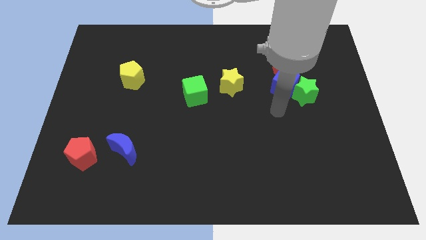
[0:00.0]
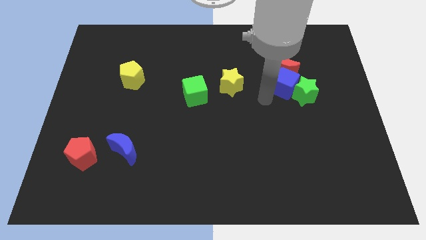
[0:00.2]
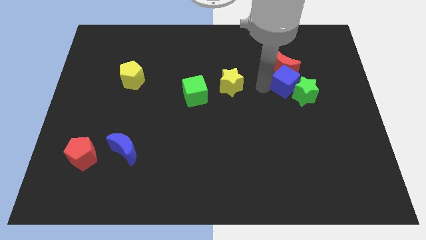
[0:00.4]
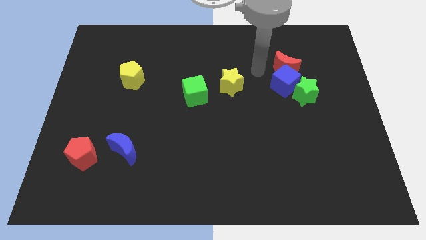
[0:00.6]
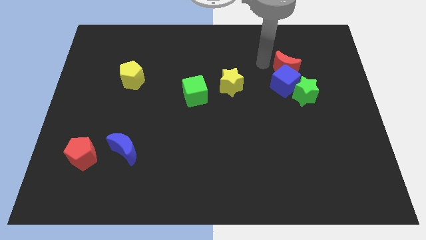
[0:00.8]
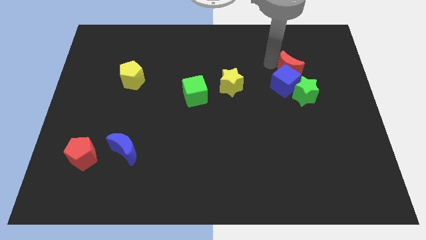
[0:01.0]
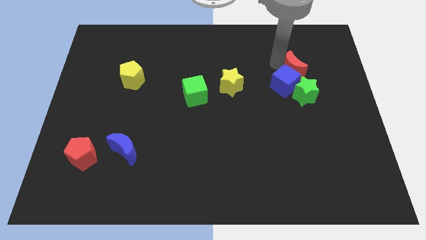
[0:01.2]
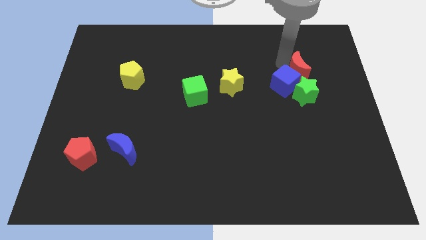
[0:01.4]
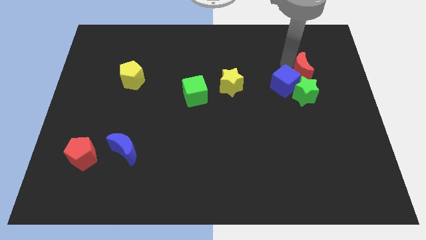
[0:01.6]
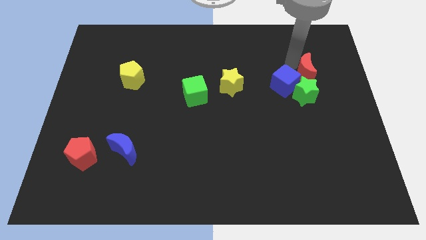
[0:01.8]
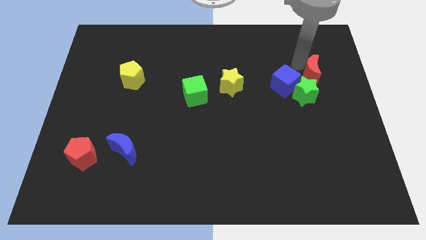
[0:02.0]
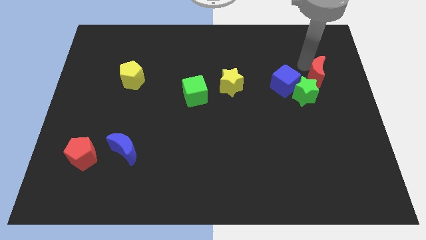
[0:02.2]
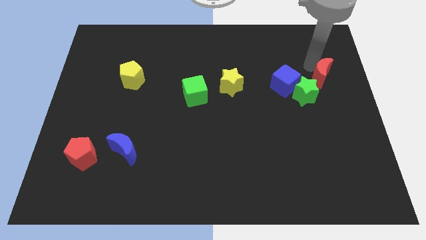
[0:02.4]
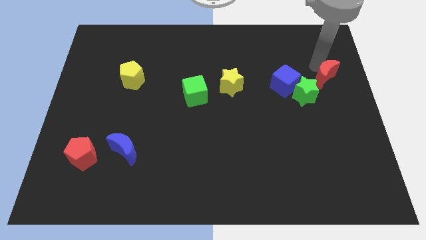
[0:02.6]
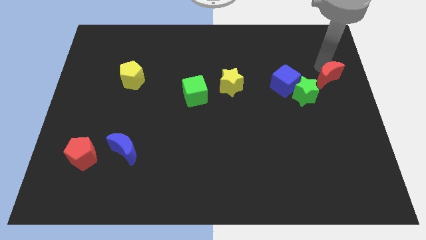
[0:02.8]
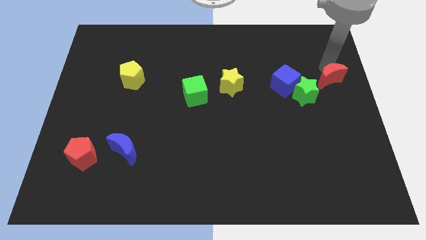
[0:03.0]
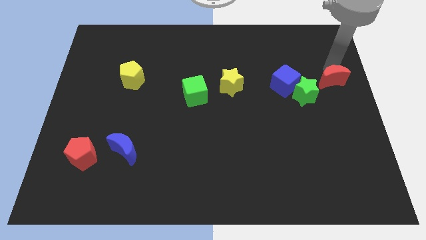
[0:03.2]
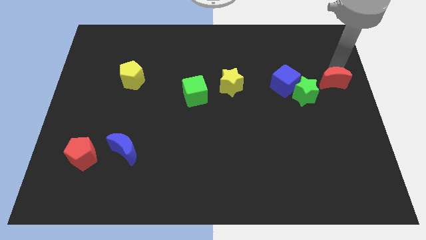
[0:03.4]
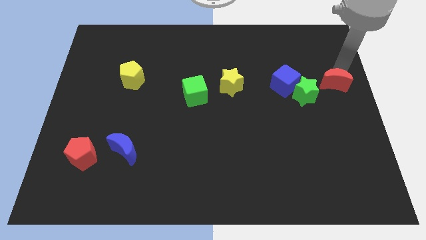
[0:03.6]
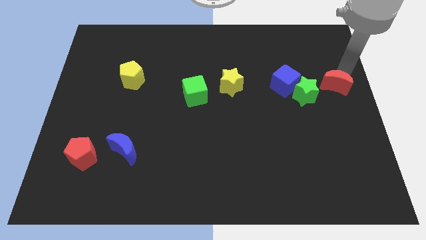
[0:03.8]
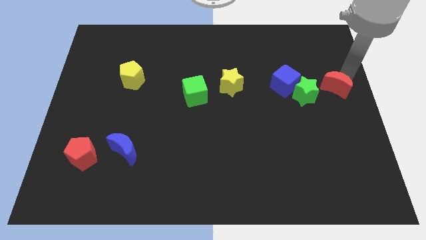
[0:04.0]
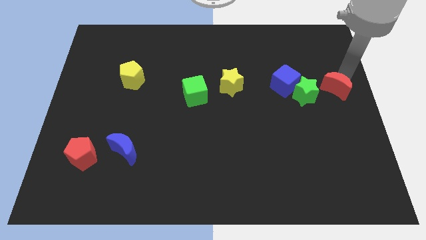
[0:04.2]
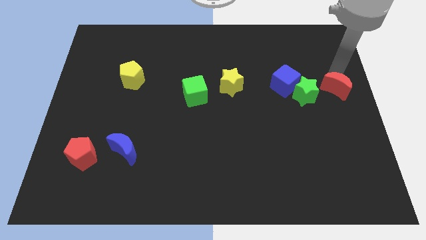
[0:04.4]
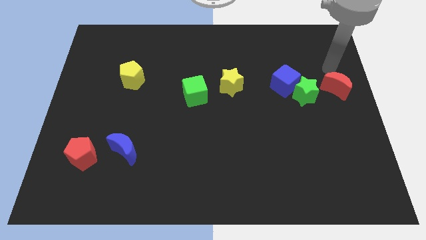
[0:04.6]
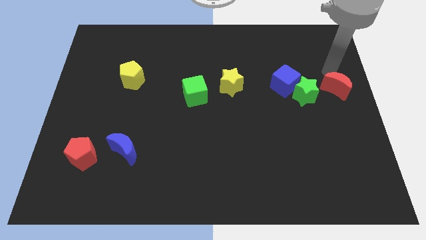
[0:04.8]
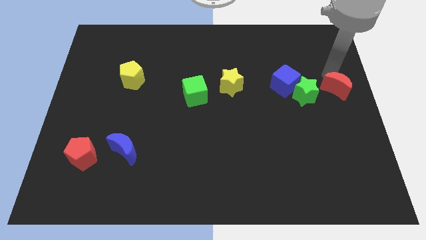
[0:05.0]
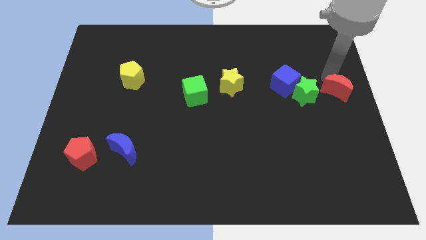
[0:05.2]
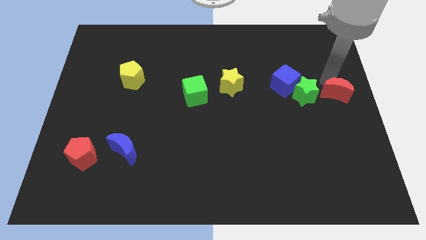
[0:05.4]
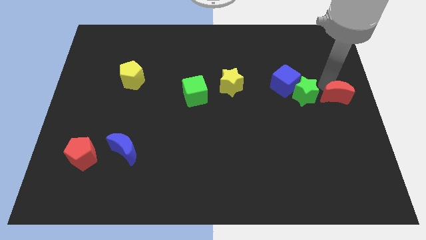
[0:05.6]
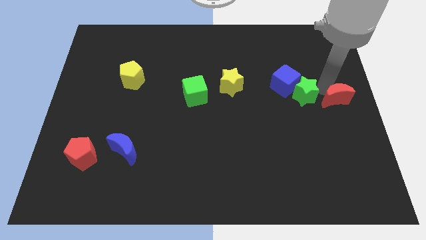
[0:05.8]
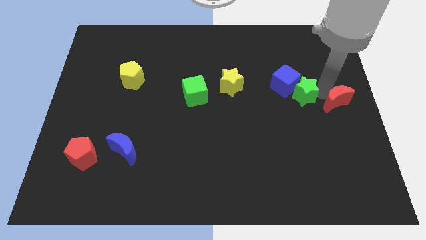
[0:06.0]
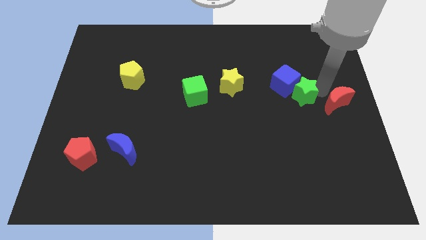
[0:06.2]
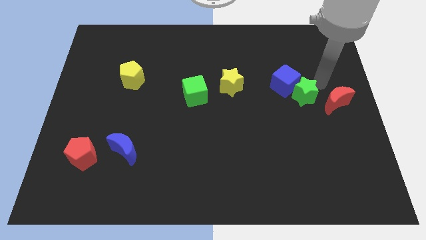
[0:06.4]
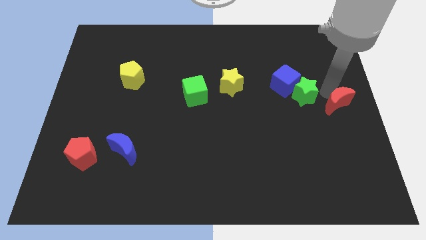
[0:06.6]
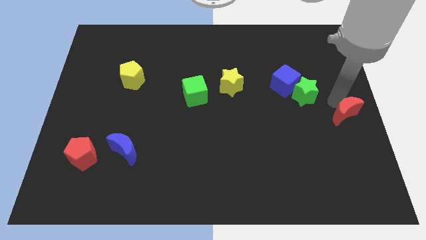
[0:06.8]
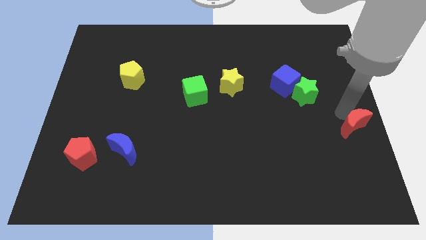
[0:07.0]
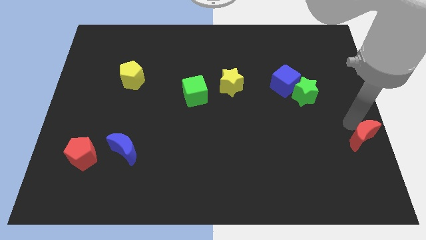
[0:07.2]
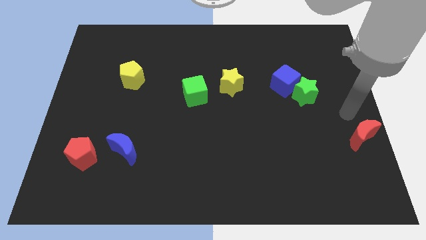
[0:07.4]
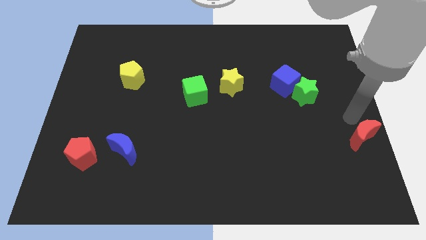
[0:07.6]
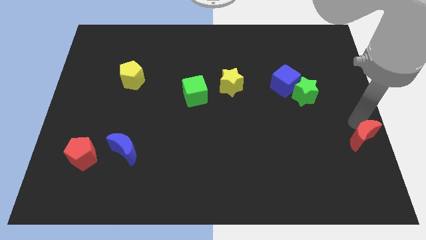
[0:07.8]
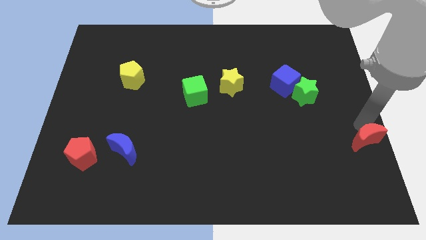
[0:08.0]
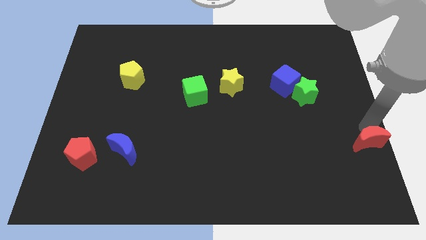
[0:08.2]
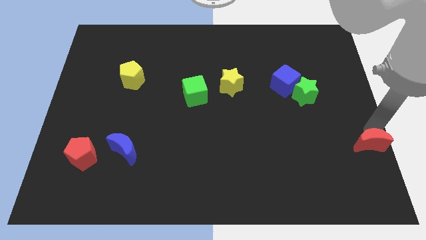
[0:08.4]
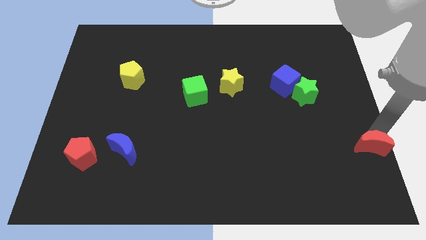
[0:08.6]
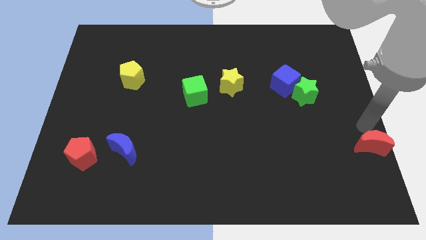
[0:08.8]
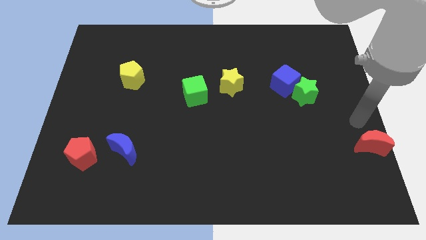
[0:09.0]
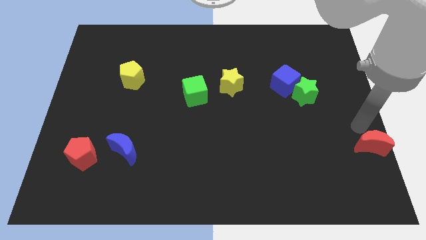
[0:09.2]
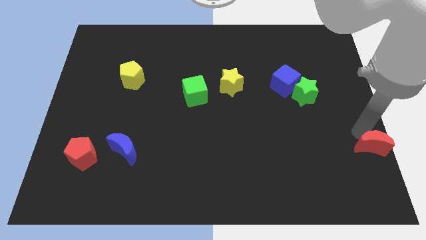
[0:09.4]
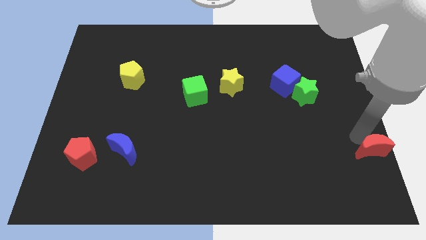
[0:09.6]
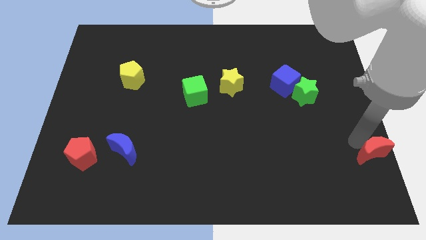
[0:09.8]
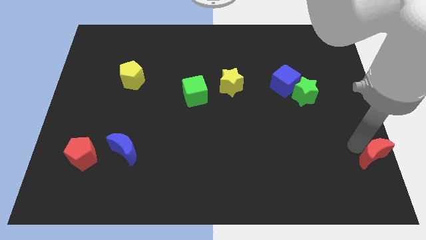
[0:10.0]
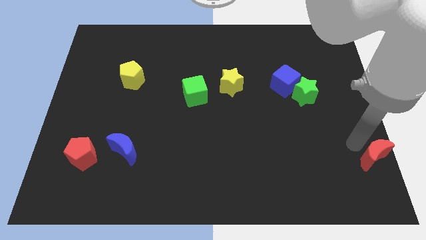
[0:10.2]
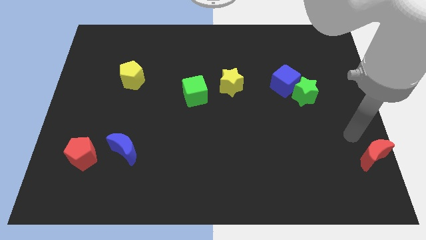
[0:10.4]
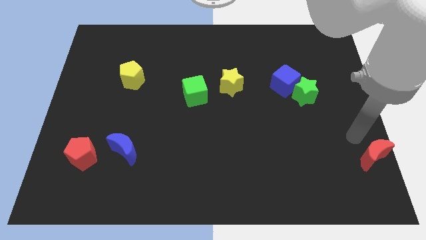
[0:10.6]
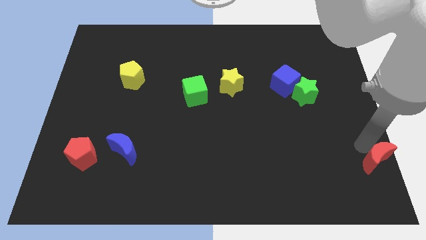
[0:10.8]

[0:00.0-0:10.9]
put the red moon to the bottom right corner

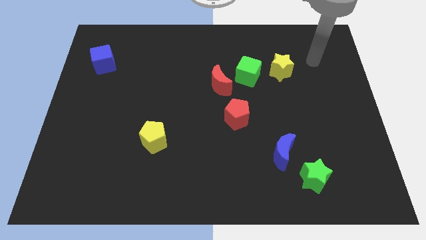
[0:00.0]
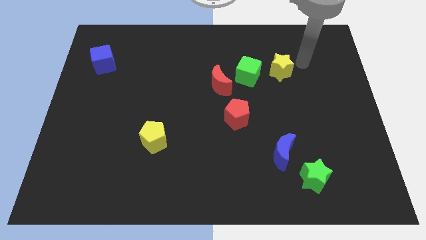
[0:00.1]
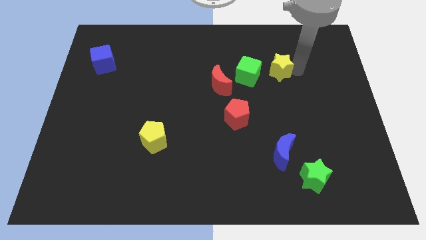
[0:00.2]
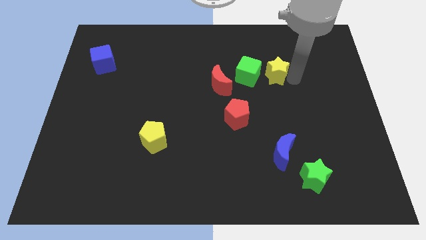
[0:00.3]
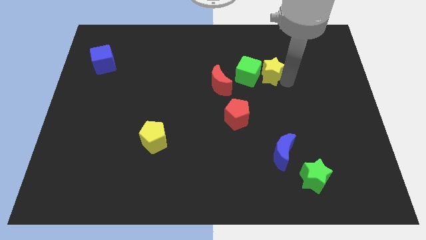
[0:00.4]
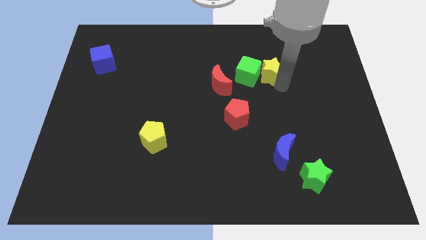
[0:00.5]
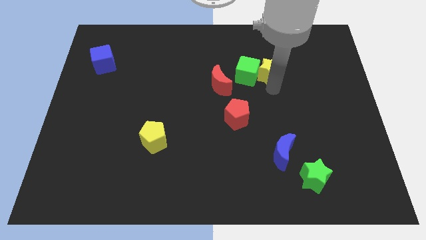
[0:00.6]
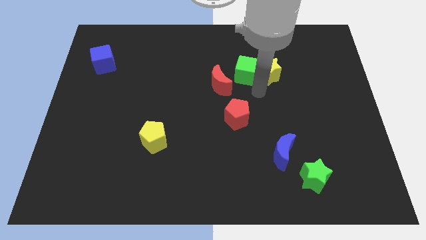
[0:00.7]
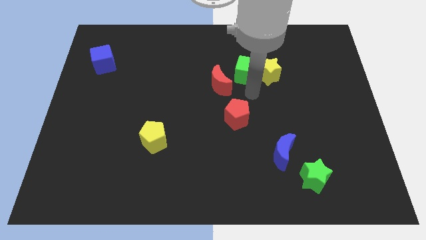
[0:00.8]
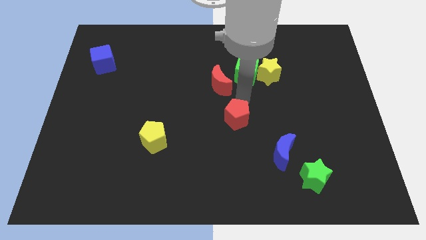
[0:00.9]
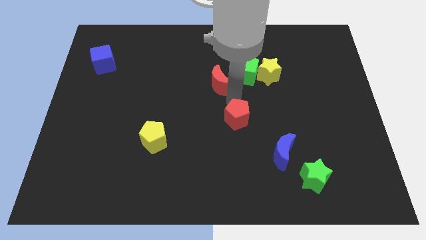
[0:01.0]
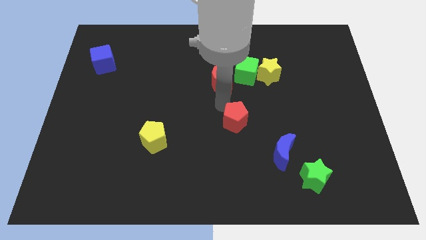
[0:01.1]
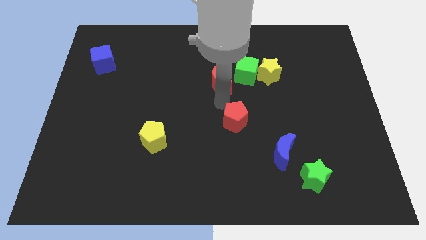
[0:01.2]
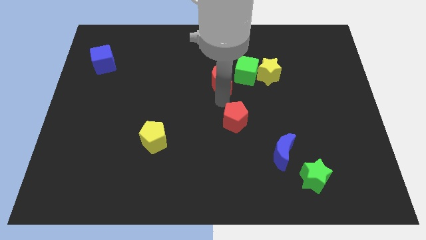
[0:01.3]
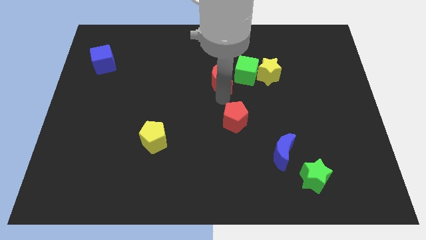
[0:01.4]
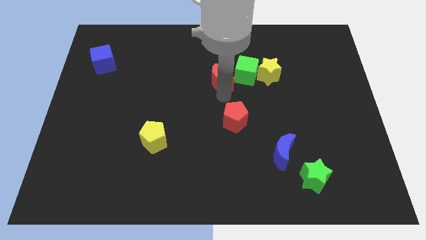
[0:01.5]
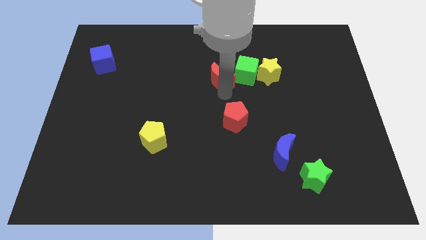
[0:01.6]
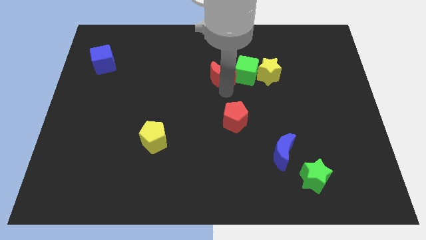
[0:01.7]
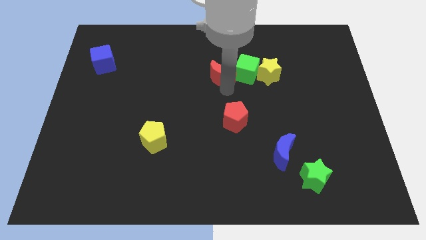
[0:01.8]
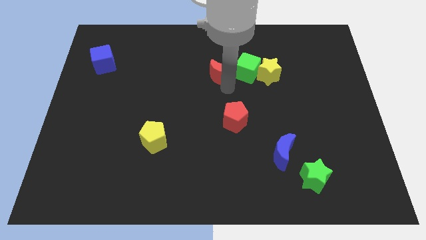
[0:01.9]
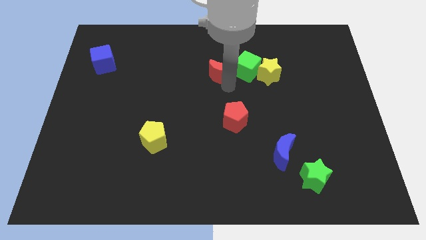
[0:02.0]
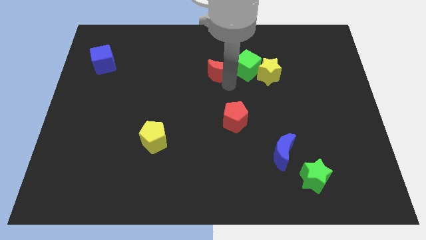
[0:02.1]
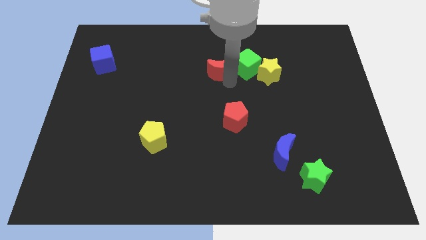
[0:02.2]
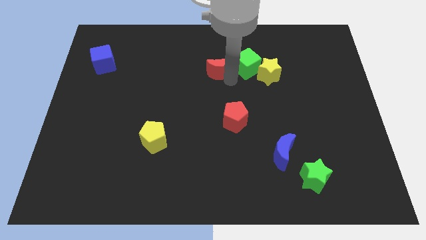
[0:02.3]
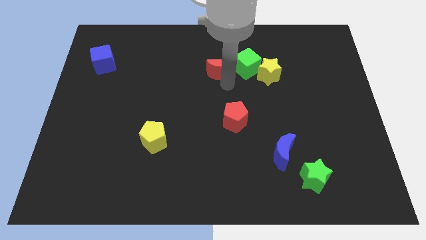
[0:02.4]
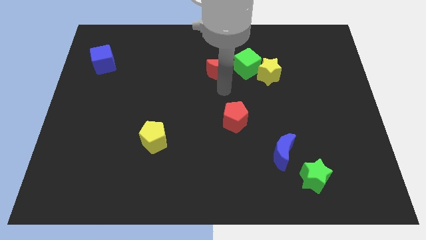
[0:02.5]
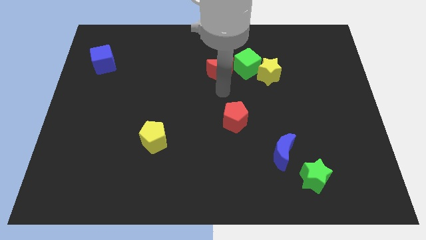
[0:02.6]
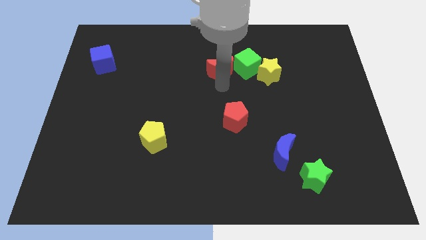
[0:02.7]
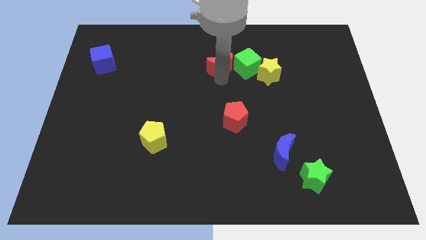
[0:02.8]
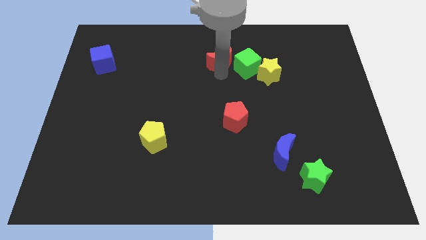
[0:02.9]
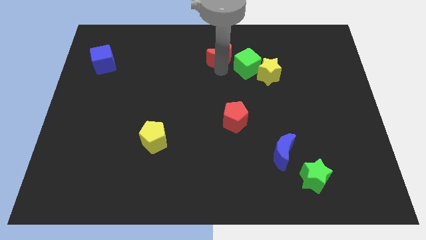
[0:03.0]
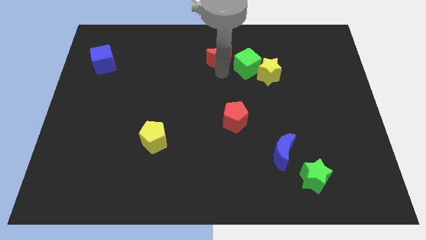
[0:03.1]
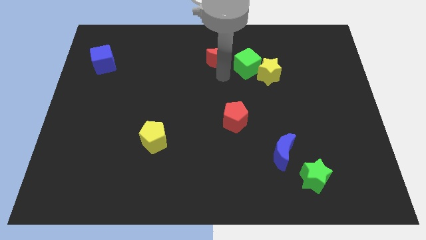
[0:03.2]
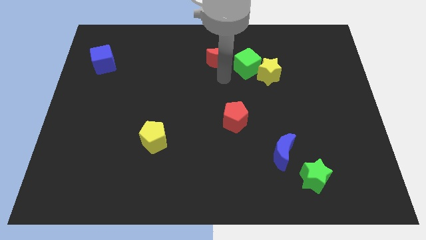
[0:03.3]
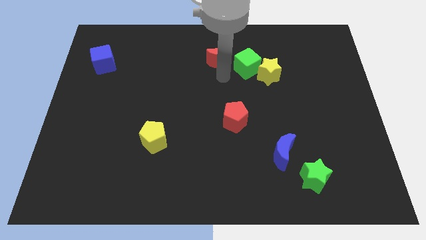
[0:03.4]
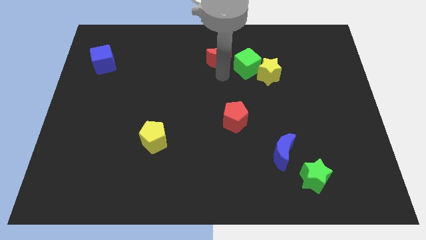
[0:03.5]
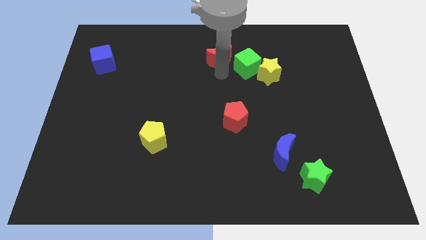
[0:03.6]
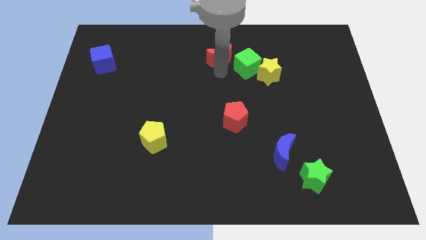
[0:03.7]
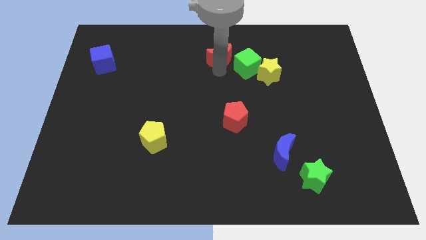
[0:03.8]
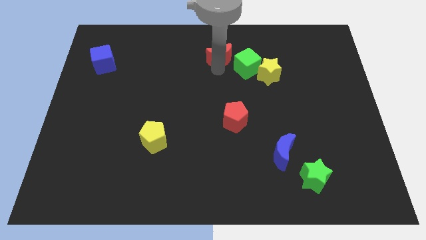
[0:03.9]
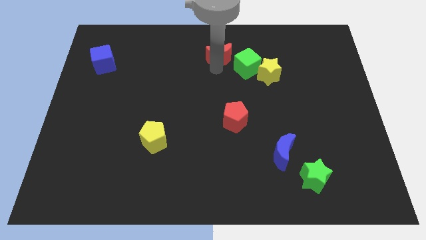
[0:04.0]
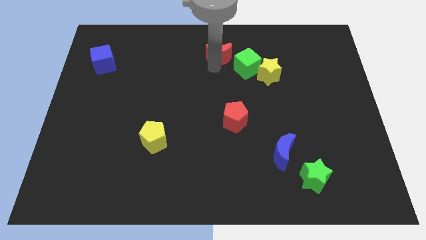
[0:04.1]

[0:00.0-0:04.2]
put the red moon to the top side
